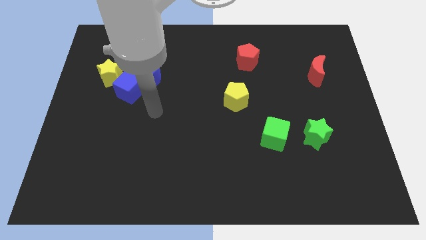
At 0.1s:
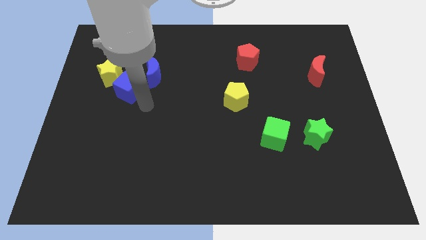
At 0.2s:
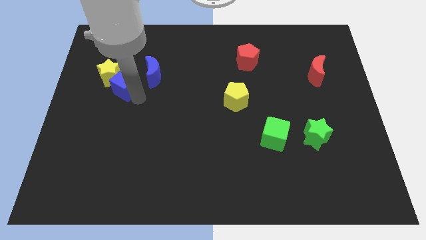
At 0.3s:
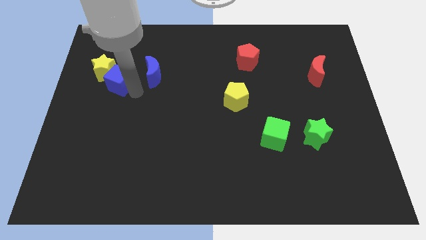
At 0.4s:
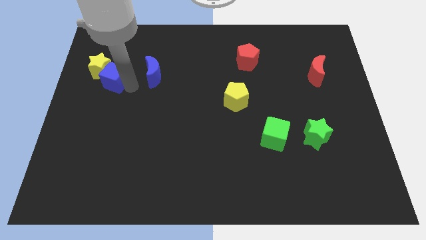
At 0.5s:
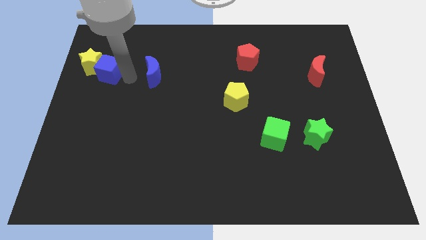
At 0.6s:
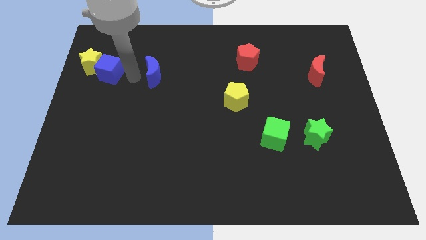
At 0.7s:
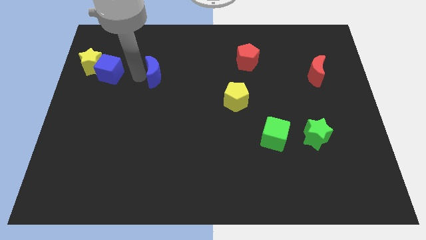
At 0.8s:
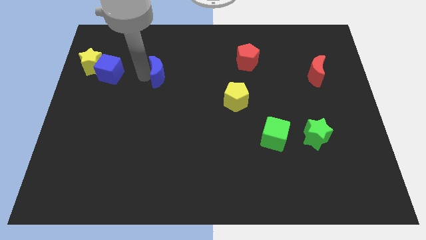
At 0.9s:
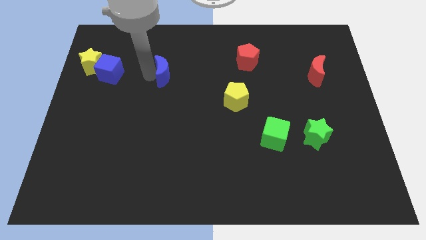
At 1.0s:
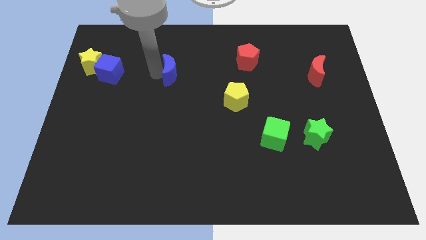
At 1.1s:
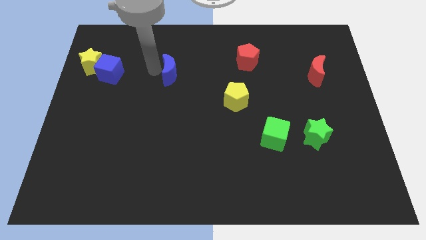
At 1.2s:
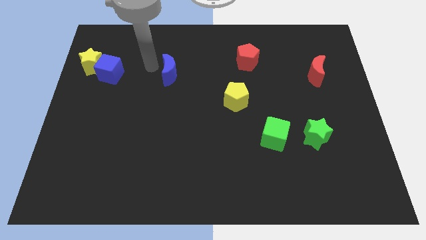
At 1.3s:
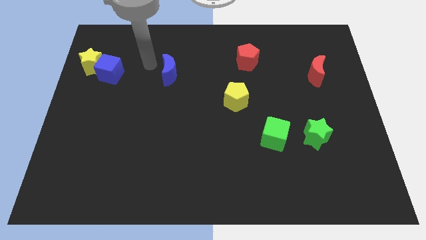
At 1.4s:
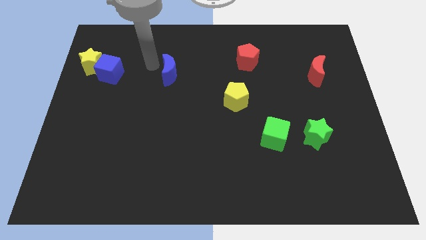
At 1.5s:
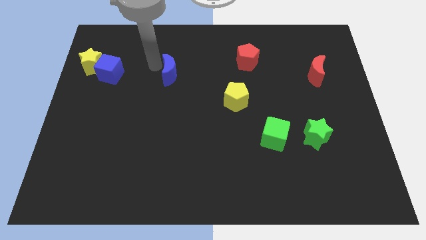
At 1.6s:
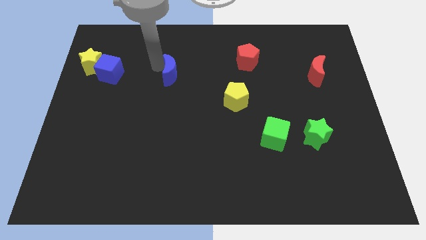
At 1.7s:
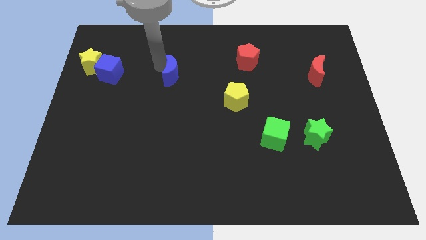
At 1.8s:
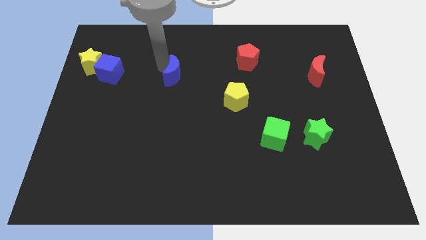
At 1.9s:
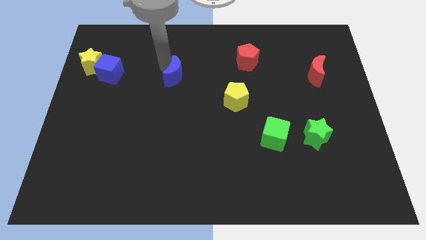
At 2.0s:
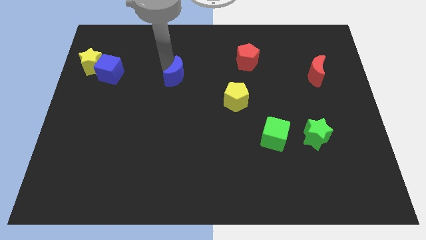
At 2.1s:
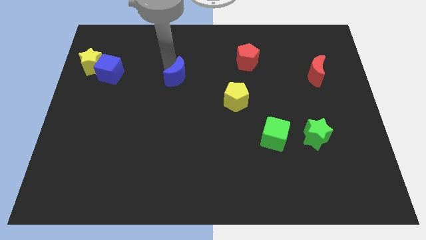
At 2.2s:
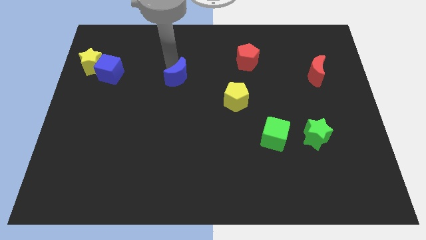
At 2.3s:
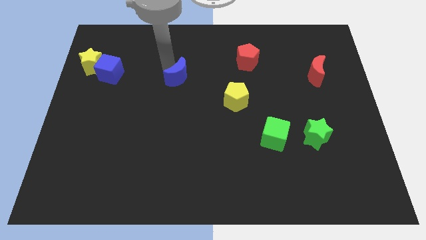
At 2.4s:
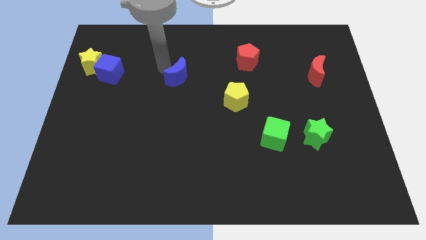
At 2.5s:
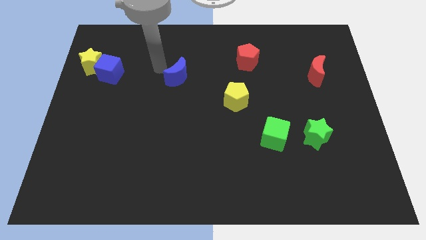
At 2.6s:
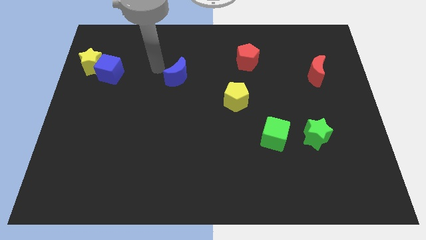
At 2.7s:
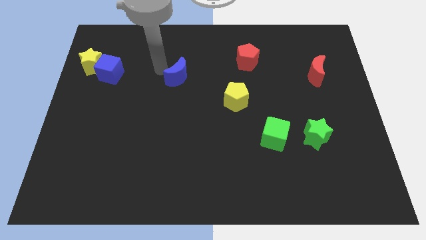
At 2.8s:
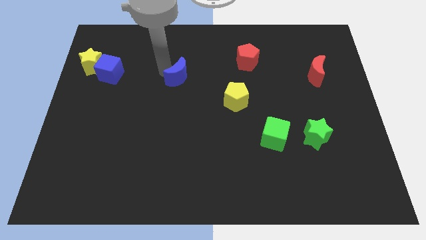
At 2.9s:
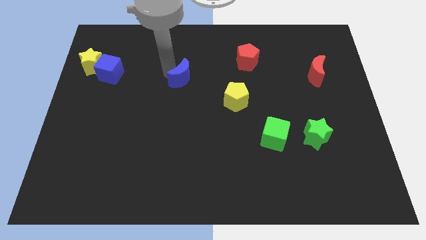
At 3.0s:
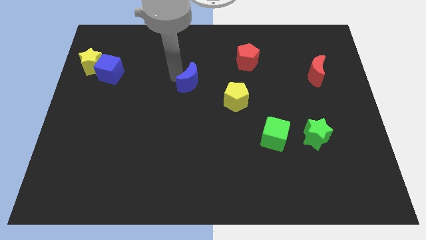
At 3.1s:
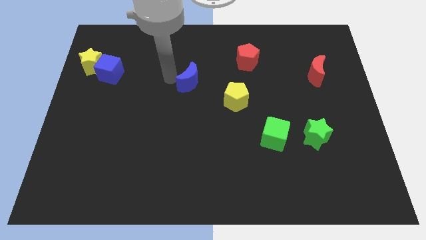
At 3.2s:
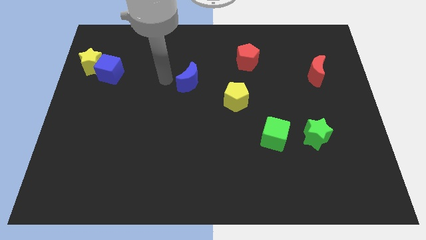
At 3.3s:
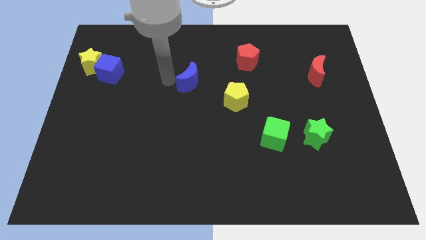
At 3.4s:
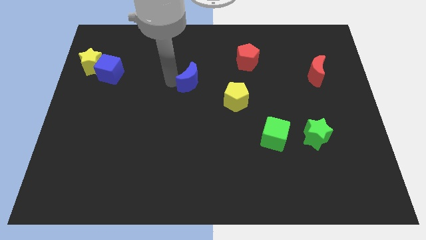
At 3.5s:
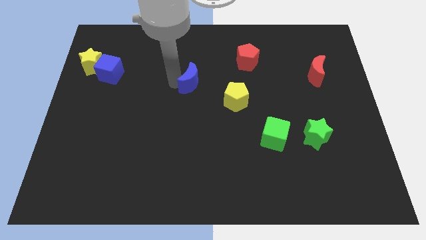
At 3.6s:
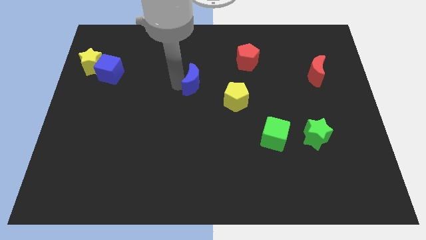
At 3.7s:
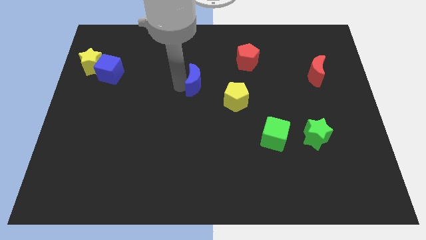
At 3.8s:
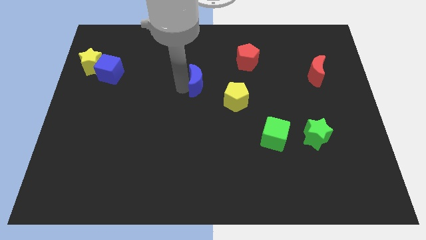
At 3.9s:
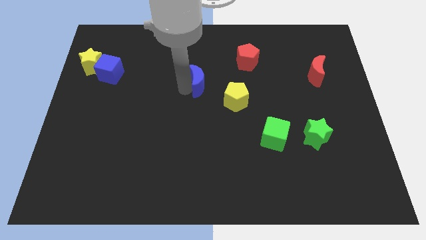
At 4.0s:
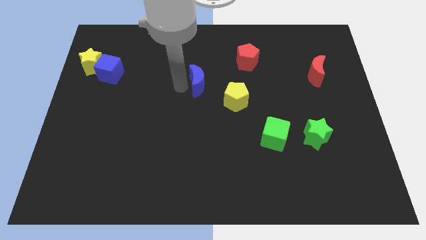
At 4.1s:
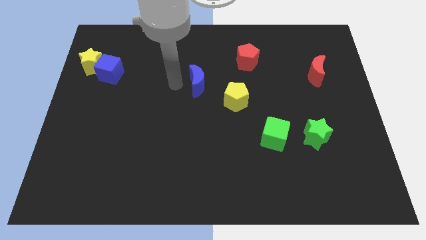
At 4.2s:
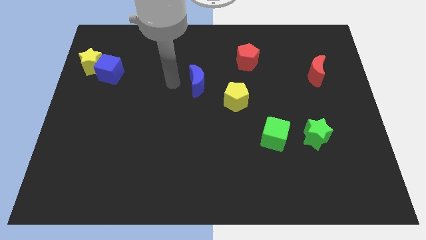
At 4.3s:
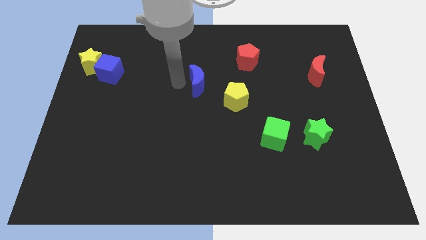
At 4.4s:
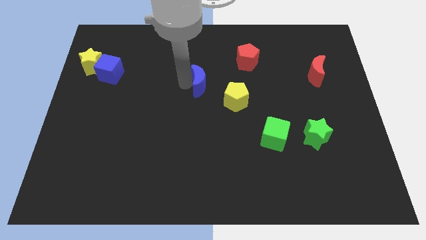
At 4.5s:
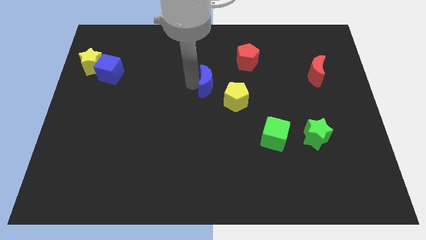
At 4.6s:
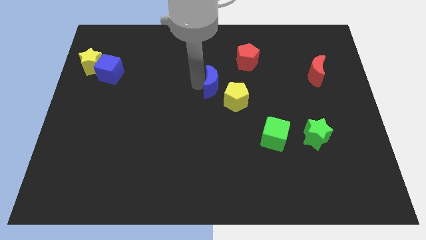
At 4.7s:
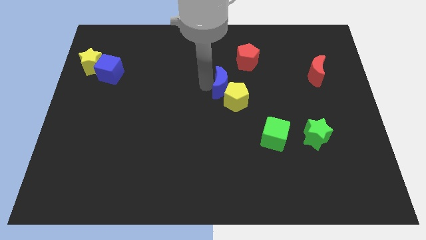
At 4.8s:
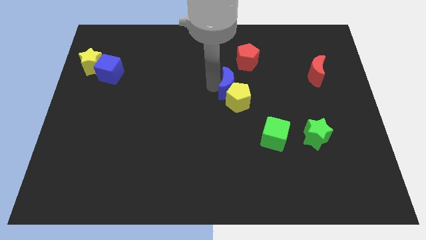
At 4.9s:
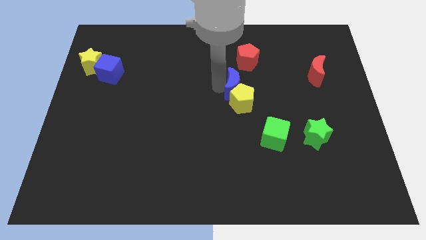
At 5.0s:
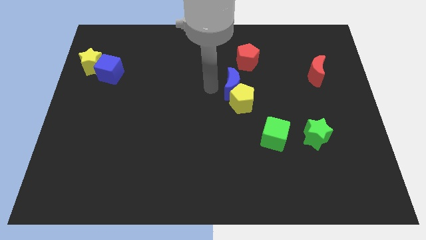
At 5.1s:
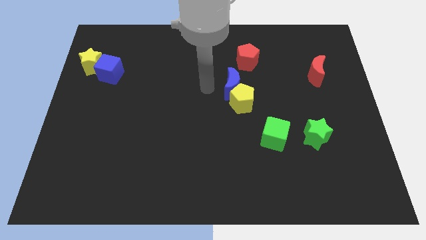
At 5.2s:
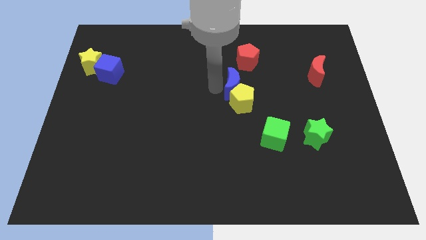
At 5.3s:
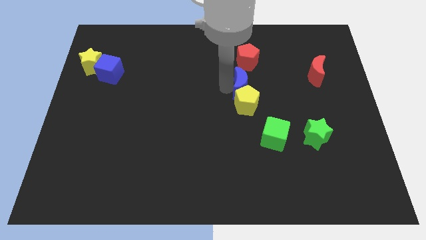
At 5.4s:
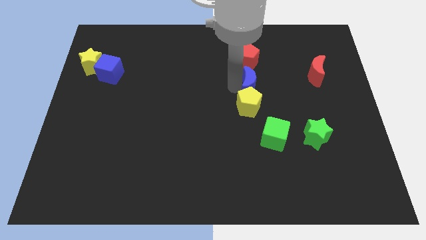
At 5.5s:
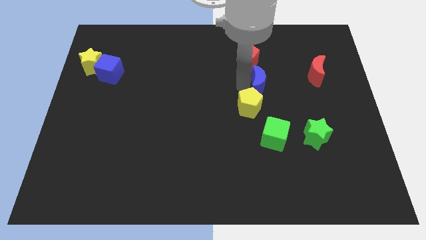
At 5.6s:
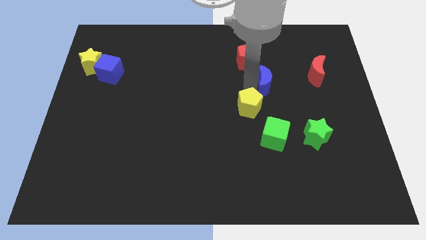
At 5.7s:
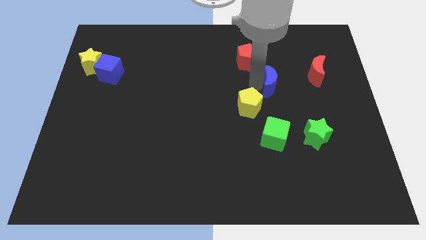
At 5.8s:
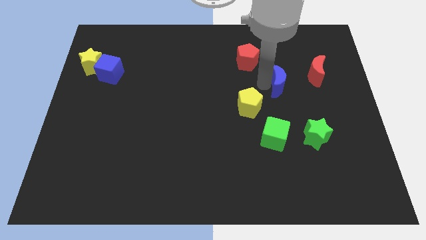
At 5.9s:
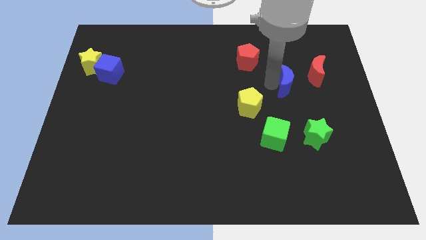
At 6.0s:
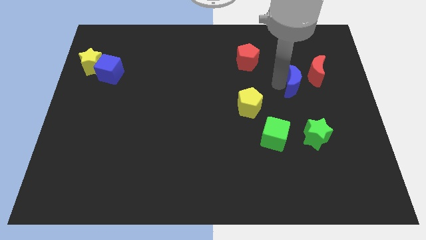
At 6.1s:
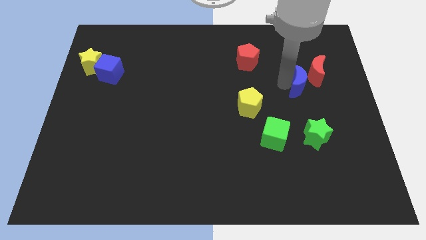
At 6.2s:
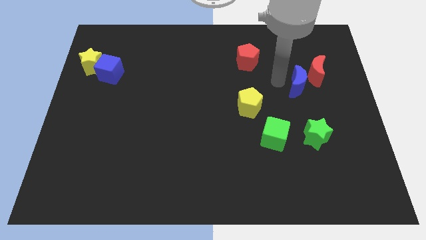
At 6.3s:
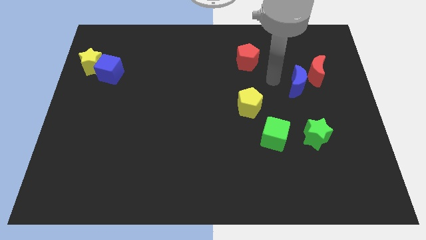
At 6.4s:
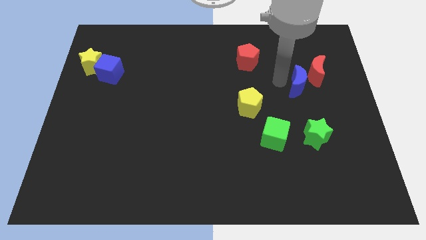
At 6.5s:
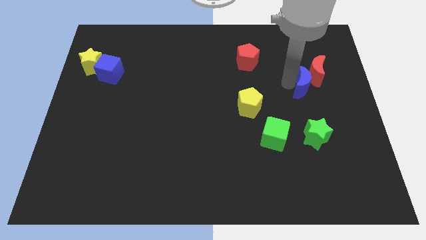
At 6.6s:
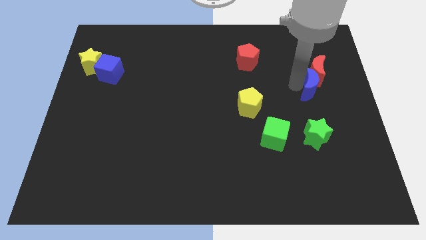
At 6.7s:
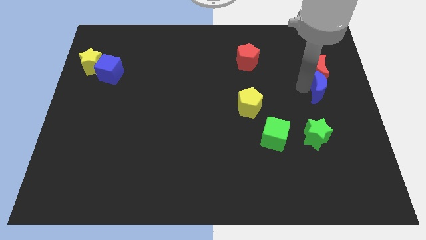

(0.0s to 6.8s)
put the blue moon to the right side
